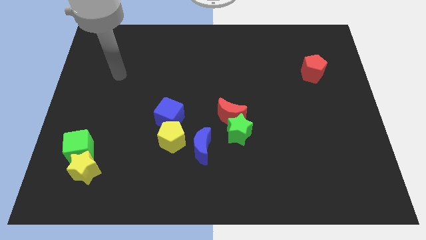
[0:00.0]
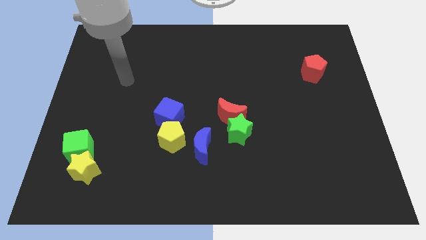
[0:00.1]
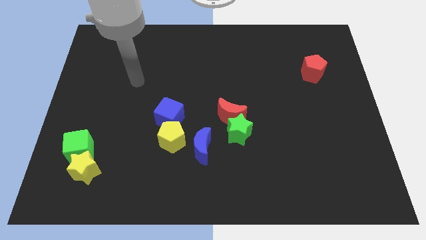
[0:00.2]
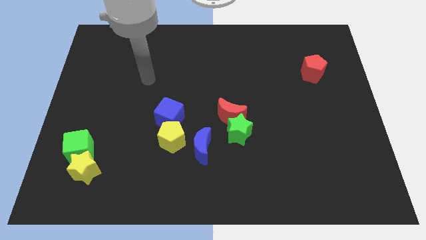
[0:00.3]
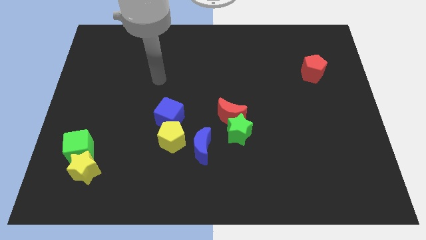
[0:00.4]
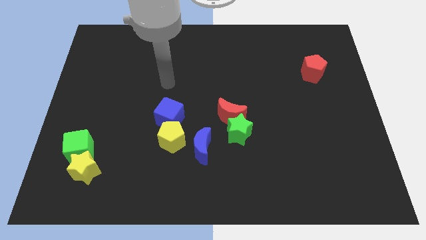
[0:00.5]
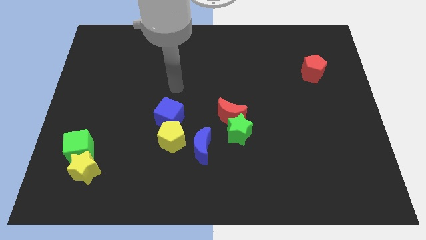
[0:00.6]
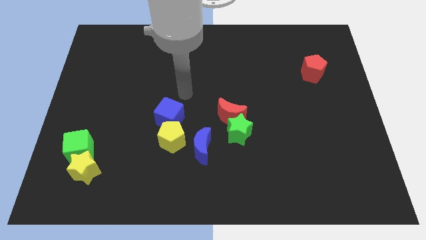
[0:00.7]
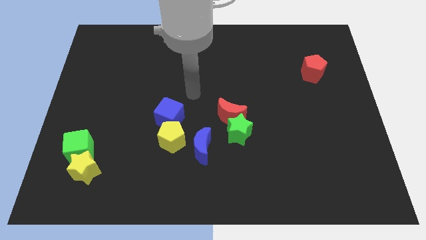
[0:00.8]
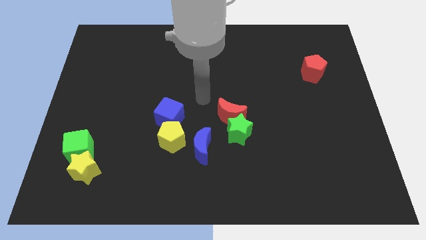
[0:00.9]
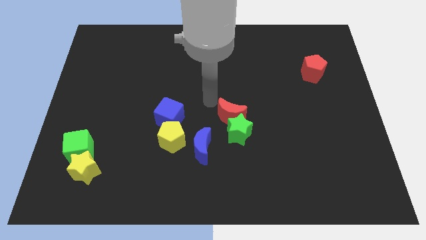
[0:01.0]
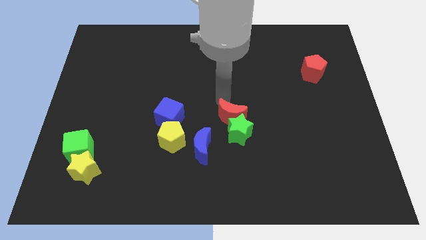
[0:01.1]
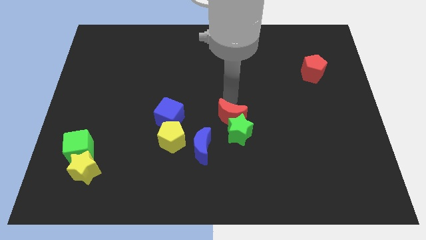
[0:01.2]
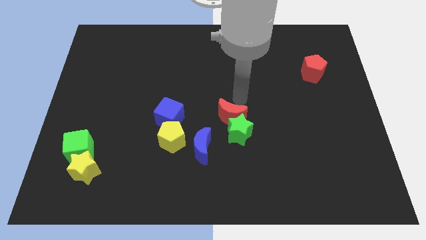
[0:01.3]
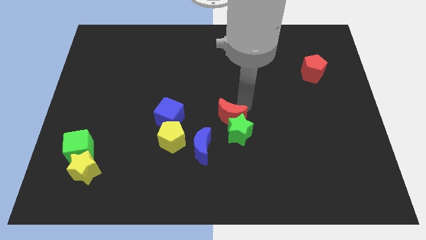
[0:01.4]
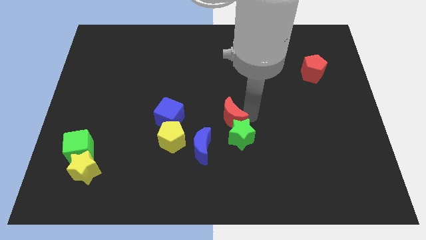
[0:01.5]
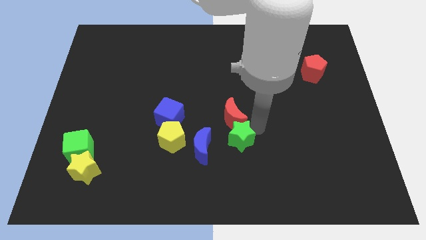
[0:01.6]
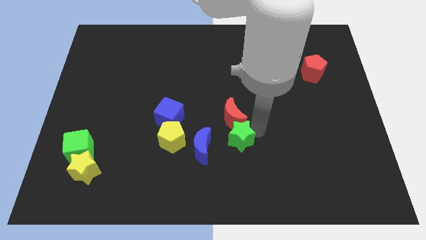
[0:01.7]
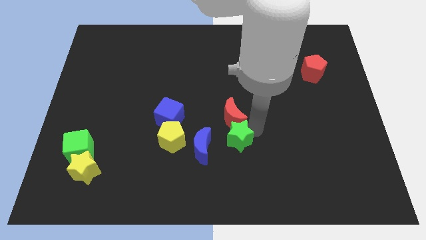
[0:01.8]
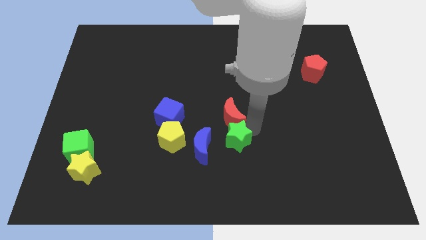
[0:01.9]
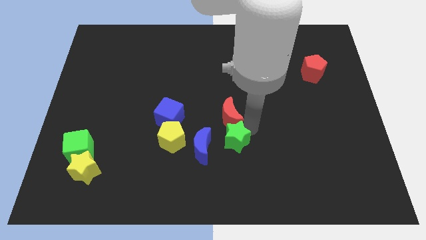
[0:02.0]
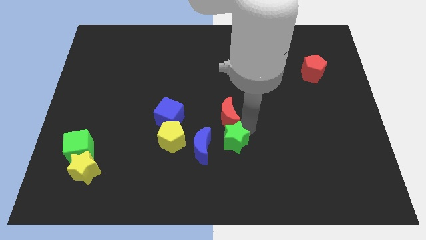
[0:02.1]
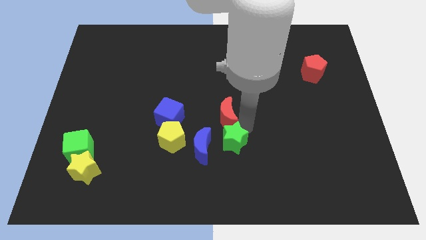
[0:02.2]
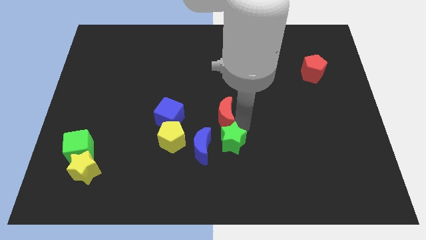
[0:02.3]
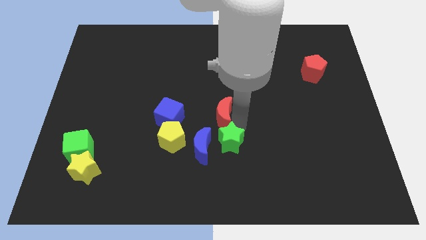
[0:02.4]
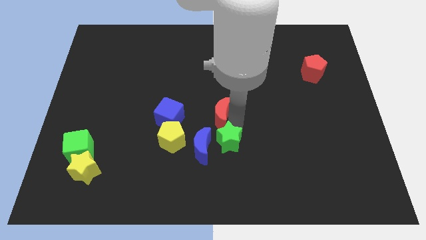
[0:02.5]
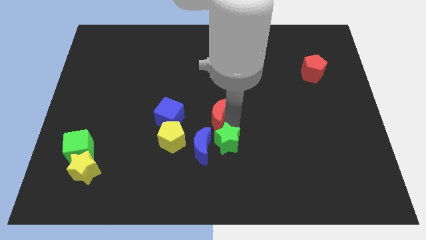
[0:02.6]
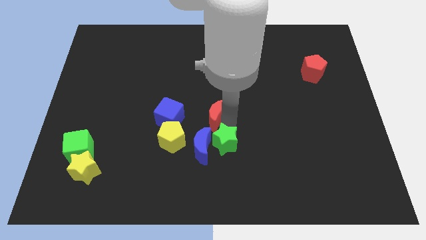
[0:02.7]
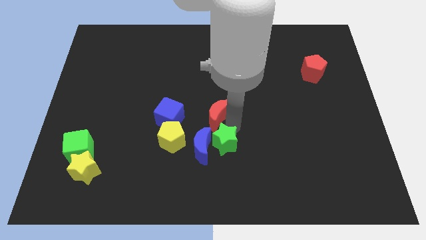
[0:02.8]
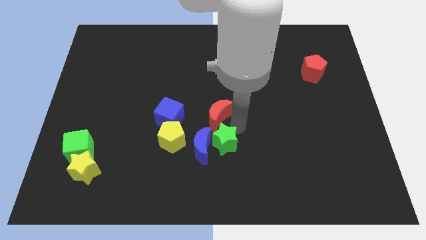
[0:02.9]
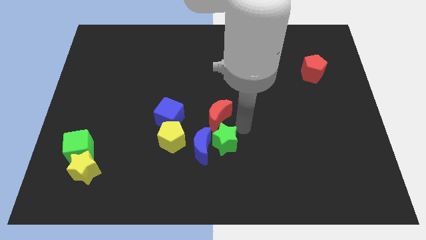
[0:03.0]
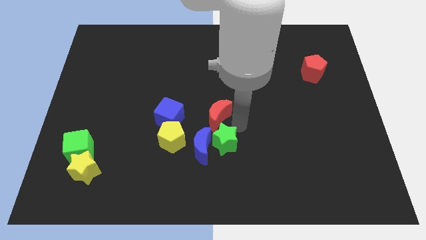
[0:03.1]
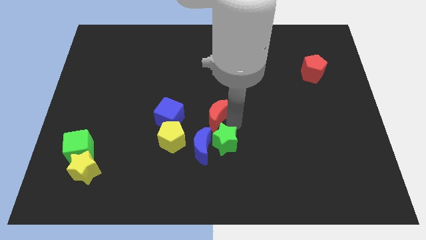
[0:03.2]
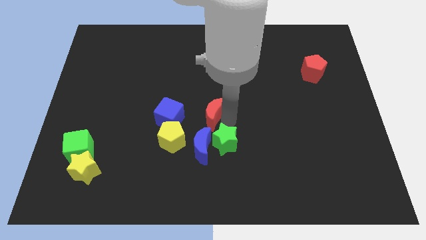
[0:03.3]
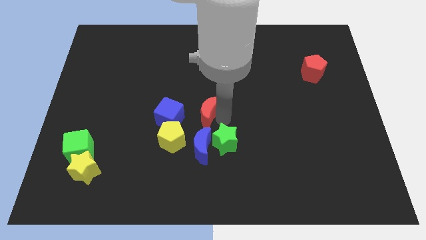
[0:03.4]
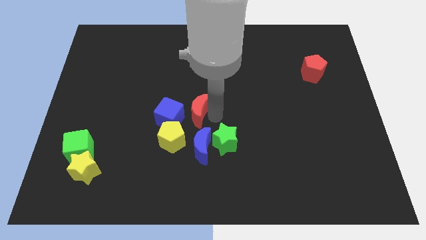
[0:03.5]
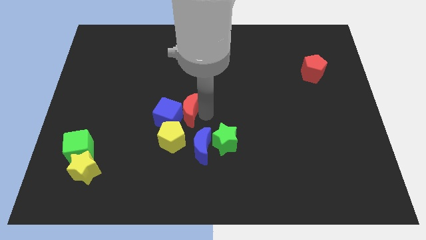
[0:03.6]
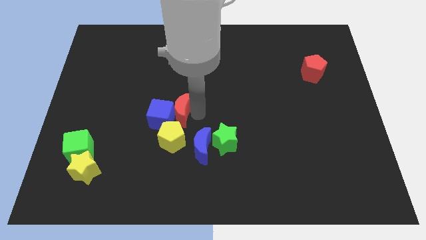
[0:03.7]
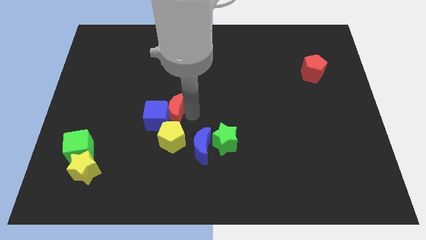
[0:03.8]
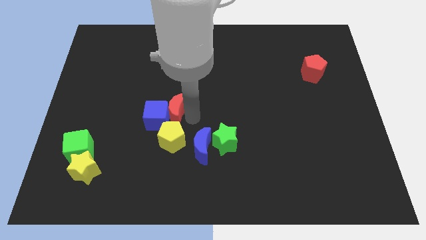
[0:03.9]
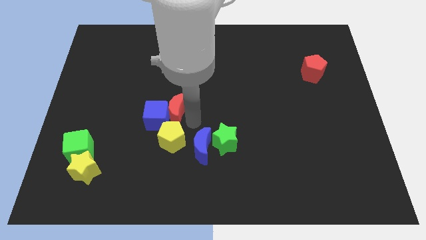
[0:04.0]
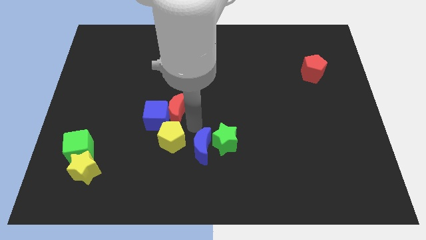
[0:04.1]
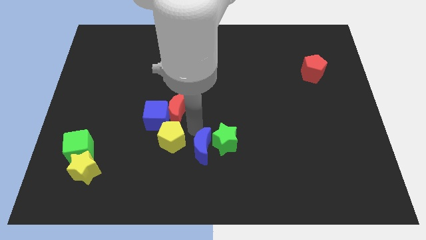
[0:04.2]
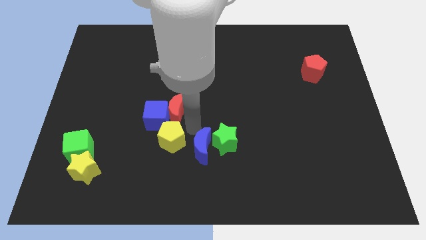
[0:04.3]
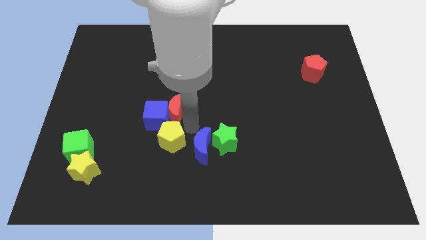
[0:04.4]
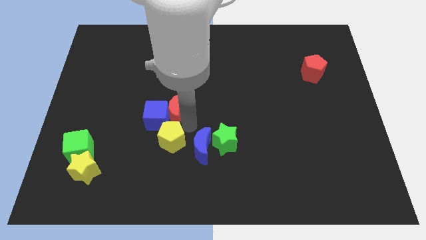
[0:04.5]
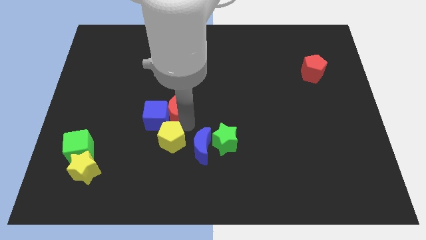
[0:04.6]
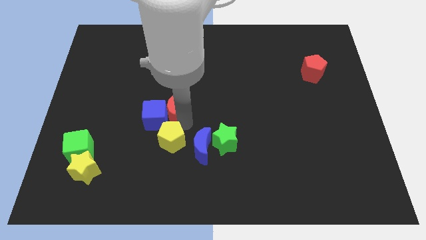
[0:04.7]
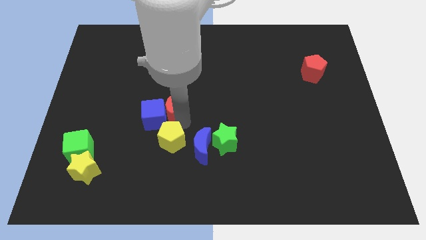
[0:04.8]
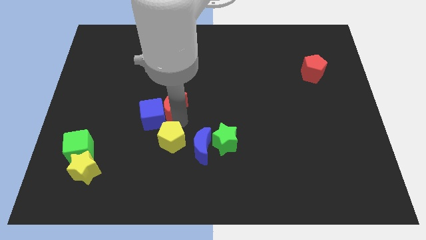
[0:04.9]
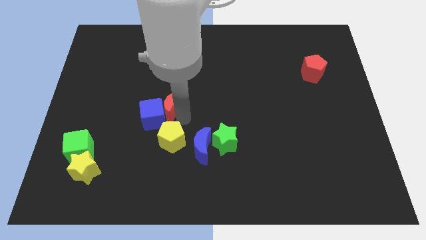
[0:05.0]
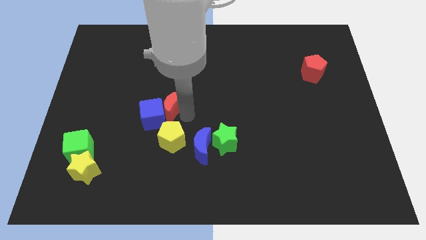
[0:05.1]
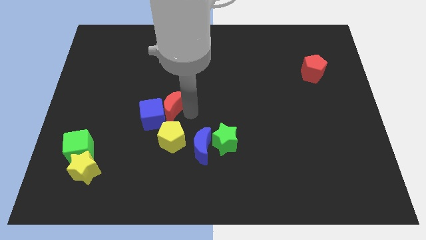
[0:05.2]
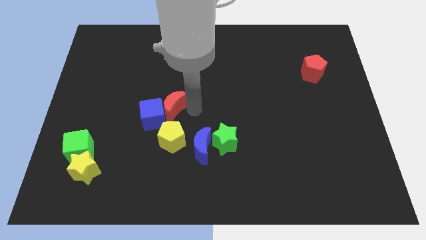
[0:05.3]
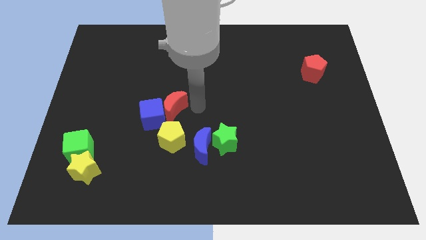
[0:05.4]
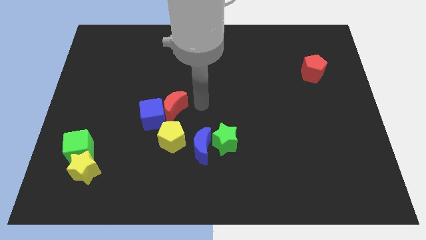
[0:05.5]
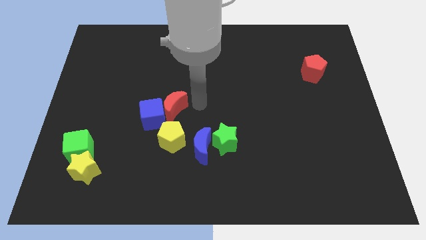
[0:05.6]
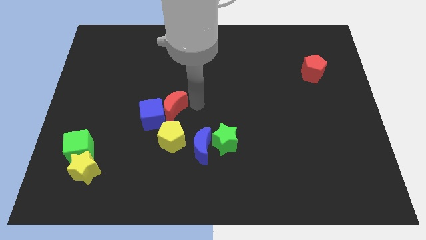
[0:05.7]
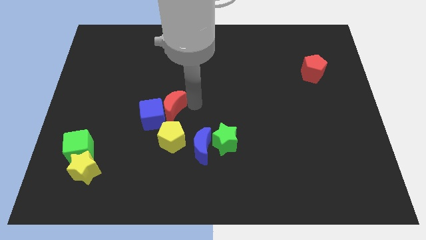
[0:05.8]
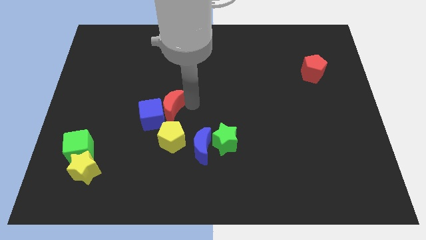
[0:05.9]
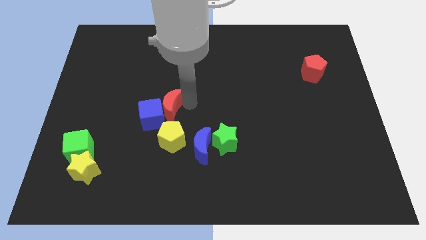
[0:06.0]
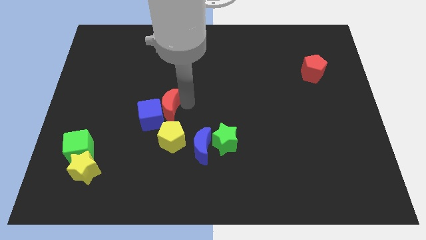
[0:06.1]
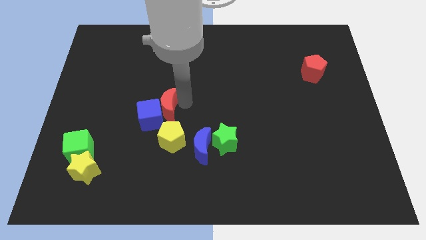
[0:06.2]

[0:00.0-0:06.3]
slide the red moon to the top left side of the yellow pentagon

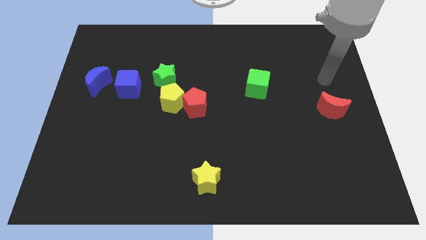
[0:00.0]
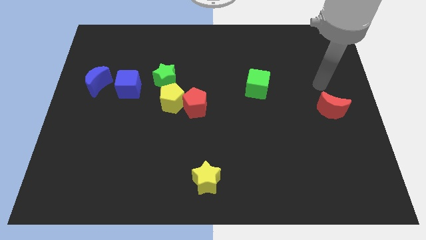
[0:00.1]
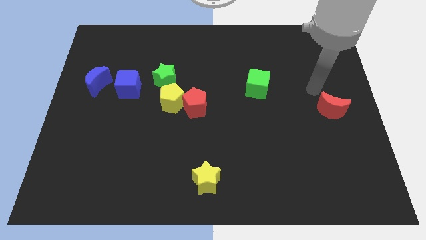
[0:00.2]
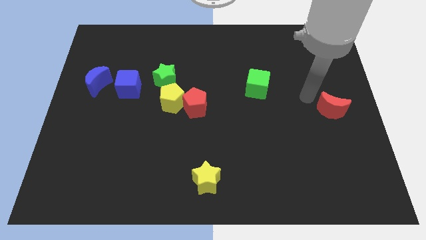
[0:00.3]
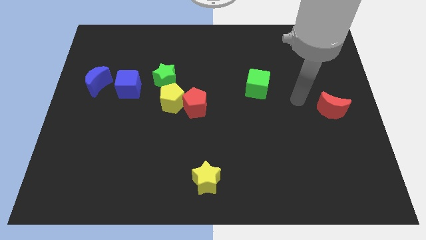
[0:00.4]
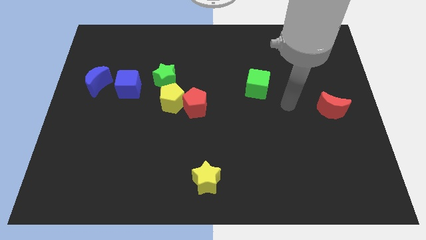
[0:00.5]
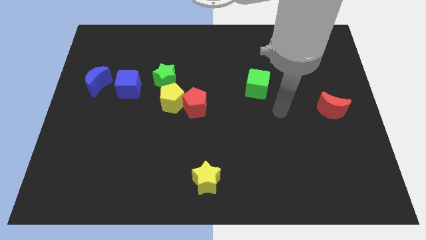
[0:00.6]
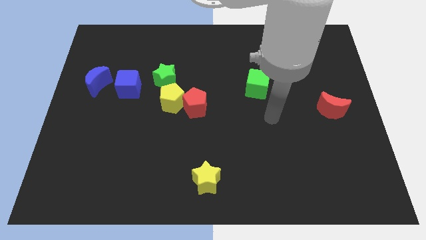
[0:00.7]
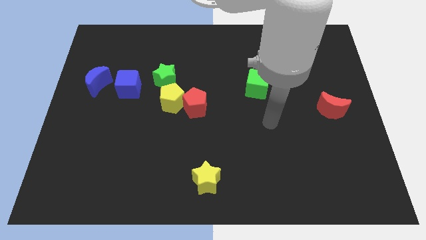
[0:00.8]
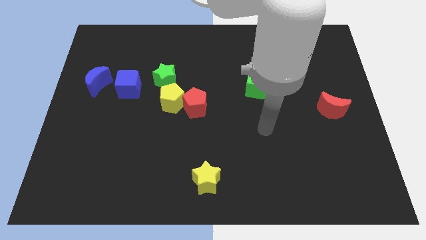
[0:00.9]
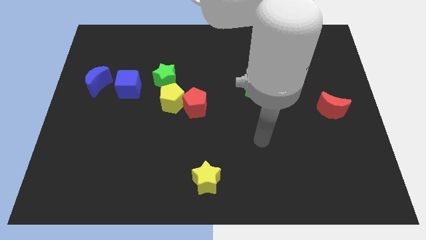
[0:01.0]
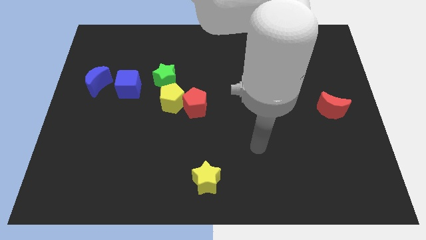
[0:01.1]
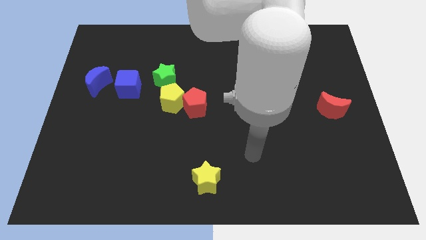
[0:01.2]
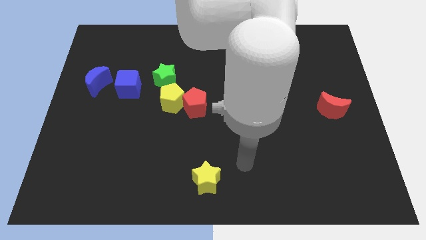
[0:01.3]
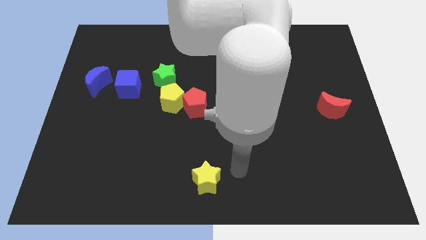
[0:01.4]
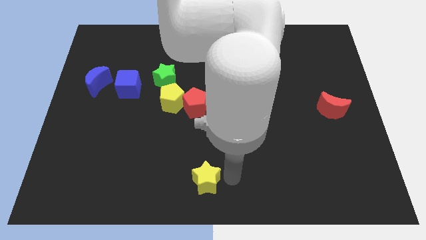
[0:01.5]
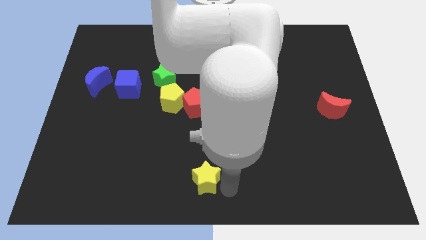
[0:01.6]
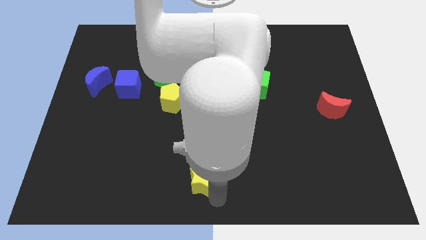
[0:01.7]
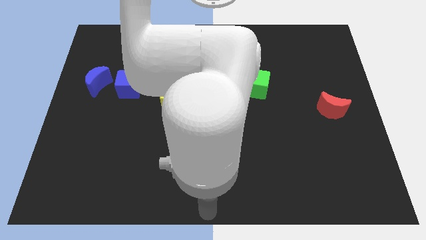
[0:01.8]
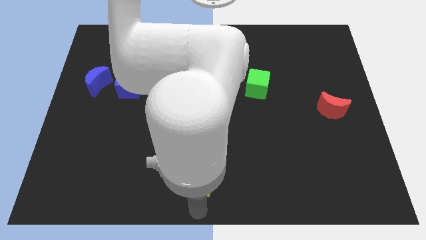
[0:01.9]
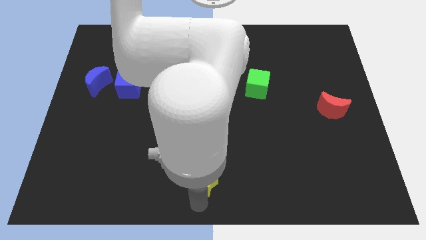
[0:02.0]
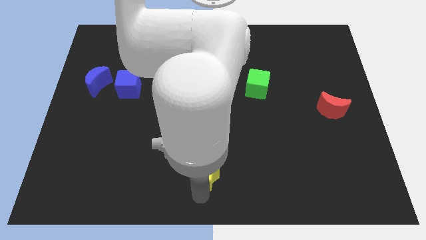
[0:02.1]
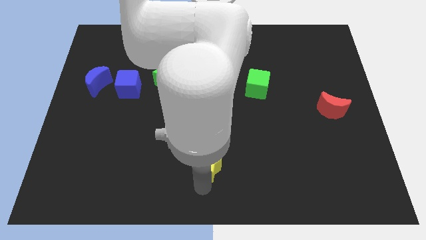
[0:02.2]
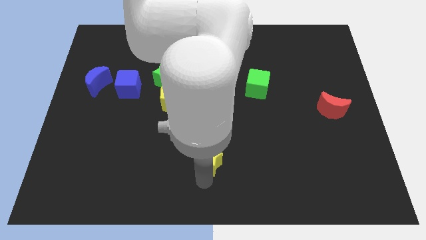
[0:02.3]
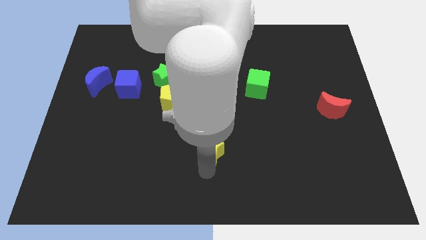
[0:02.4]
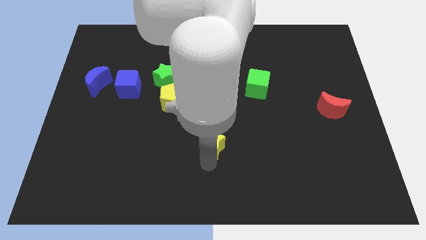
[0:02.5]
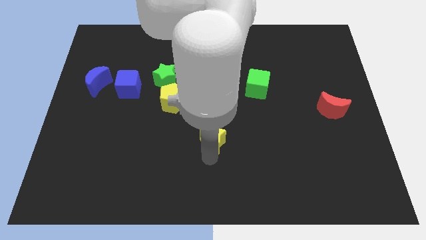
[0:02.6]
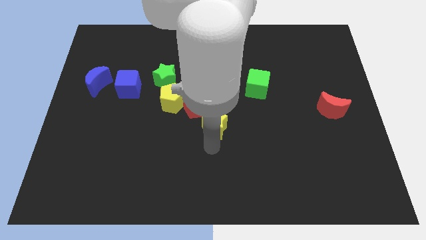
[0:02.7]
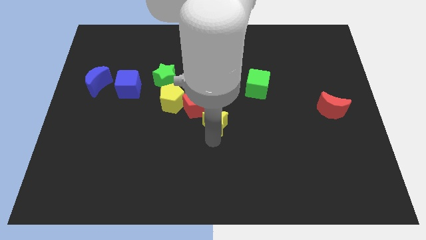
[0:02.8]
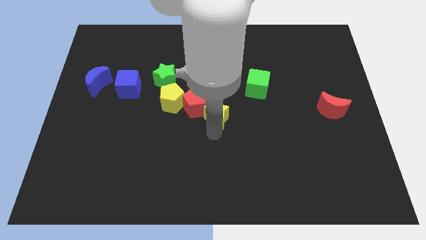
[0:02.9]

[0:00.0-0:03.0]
slide the yellow star to the right side of the yellow pentagon
